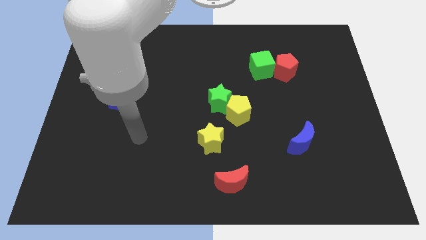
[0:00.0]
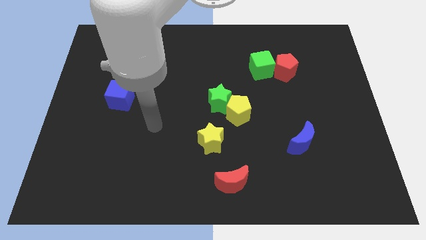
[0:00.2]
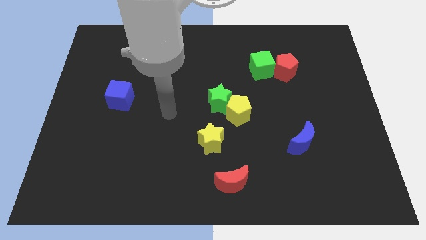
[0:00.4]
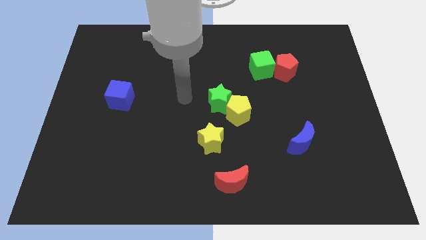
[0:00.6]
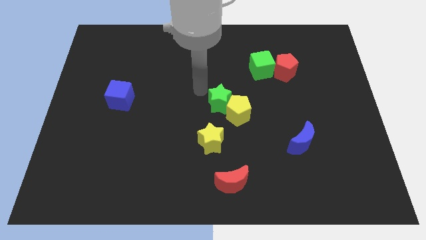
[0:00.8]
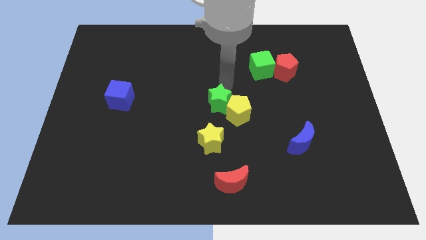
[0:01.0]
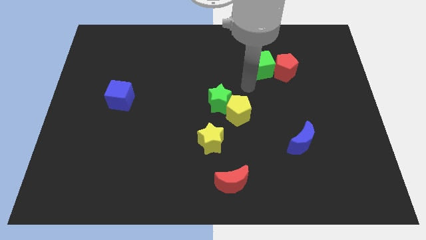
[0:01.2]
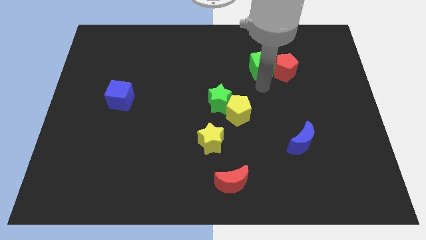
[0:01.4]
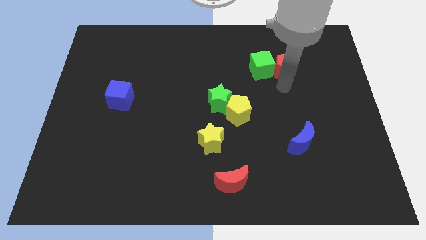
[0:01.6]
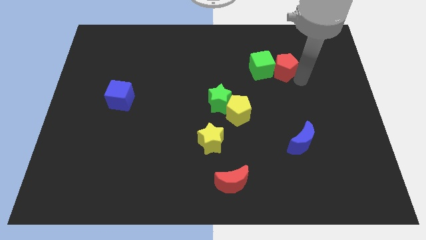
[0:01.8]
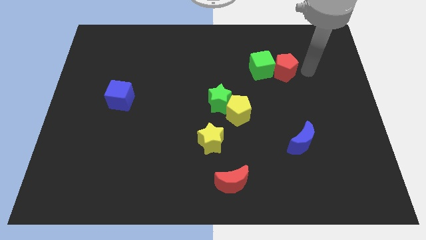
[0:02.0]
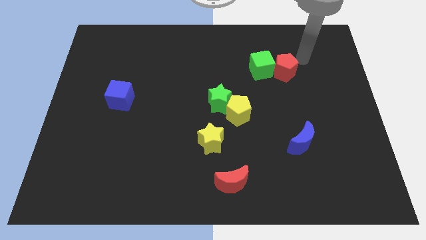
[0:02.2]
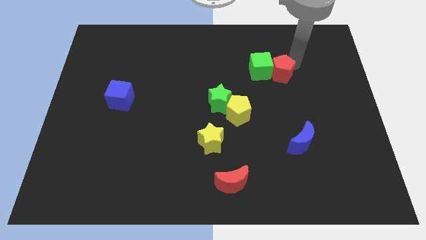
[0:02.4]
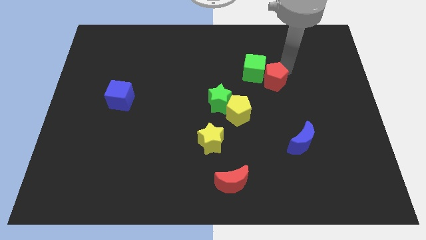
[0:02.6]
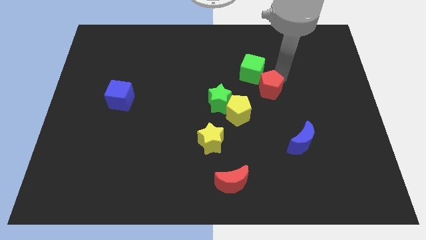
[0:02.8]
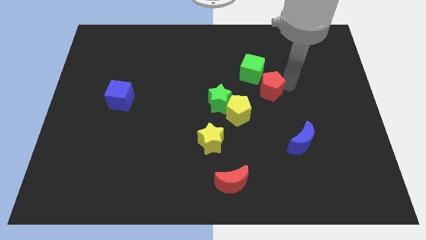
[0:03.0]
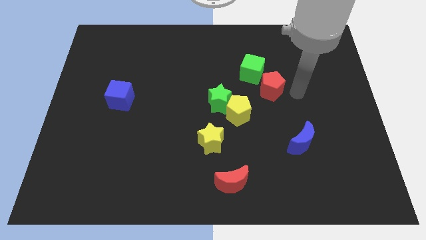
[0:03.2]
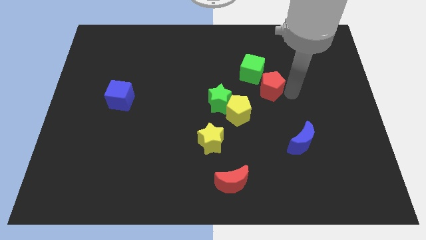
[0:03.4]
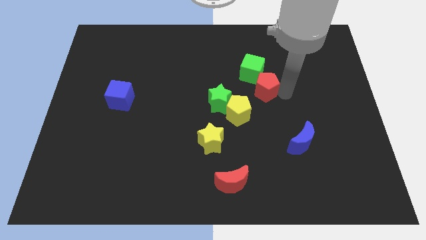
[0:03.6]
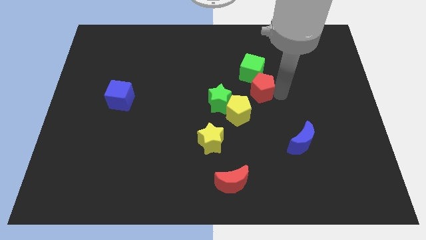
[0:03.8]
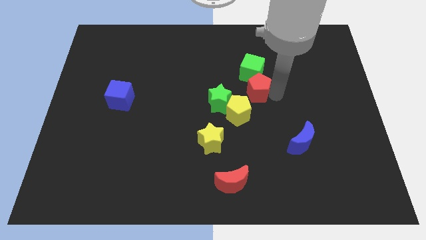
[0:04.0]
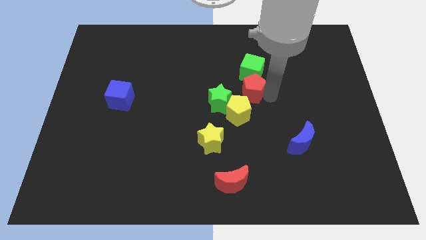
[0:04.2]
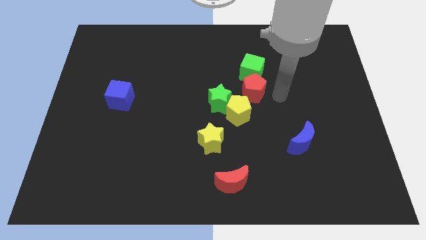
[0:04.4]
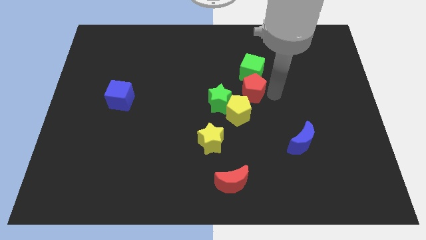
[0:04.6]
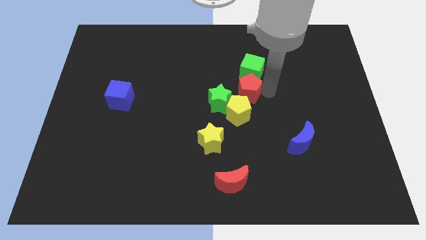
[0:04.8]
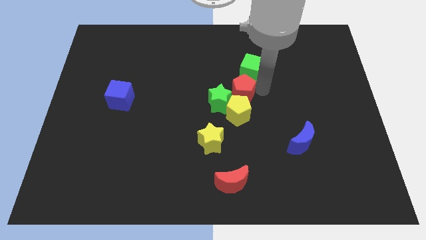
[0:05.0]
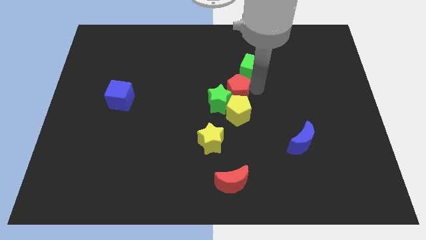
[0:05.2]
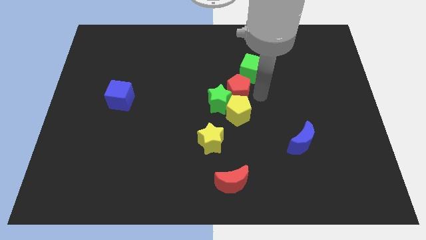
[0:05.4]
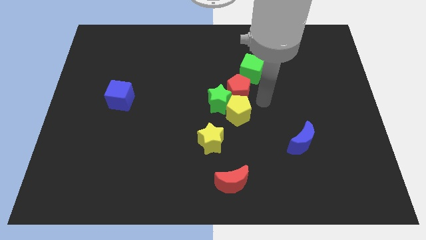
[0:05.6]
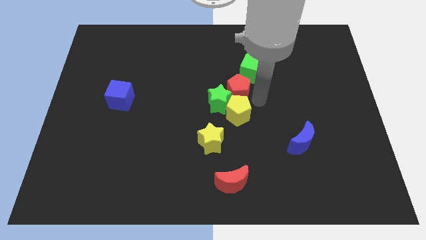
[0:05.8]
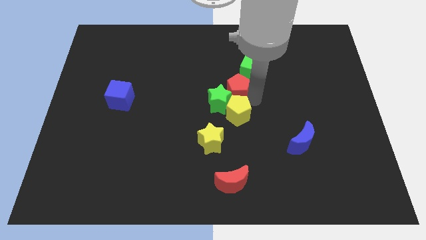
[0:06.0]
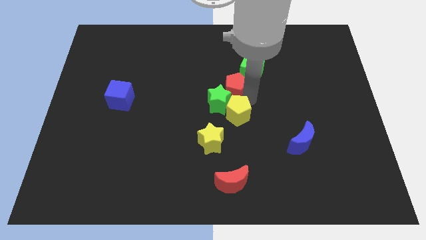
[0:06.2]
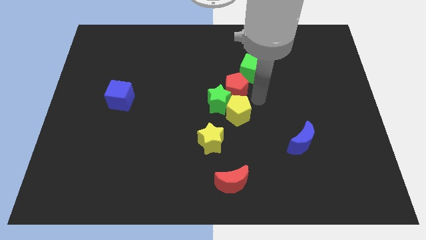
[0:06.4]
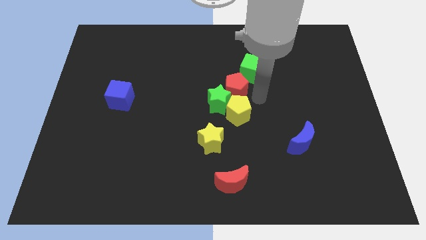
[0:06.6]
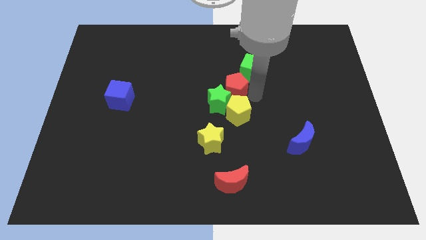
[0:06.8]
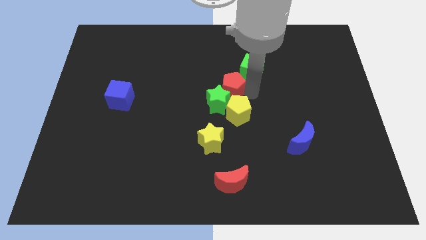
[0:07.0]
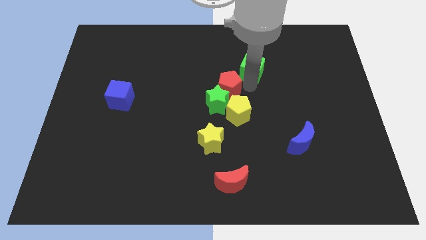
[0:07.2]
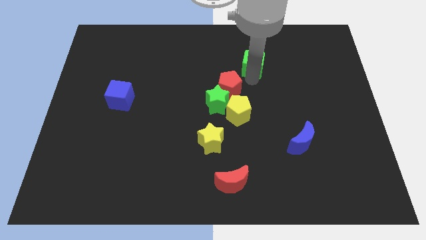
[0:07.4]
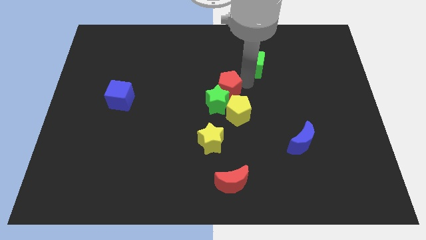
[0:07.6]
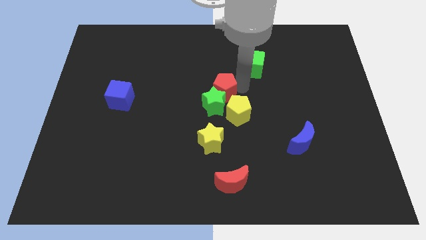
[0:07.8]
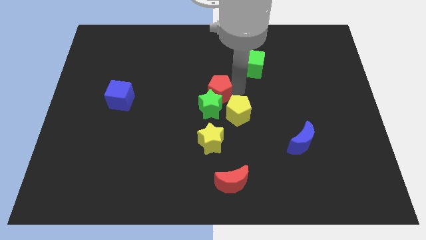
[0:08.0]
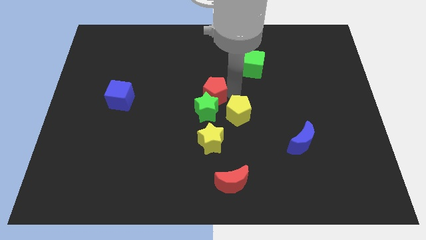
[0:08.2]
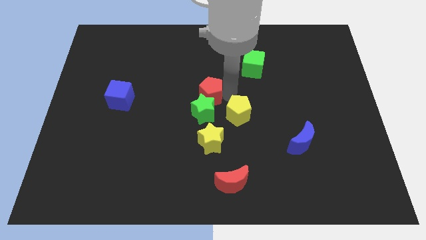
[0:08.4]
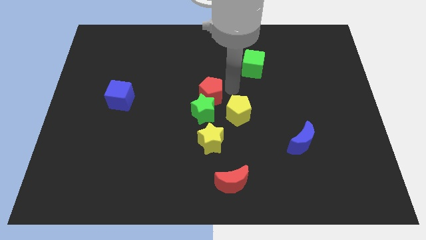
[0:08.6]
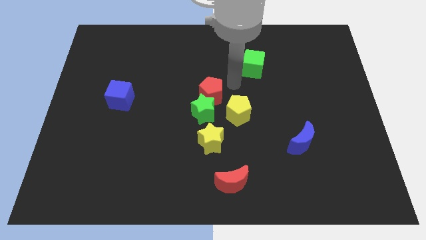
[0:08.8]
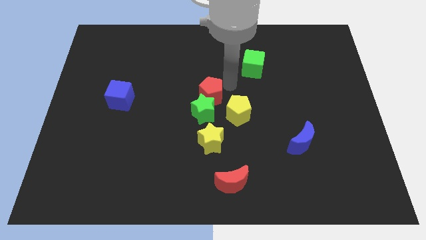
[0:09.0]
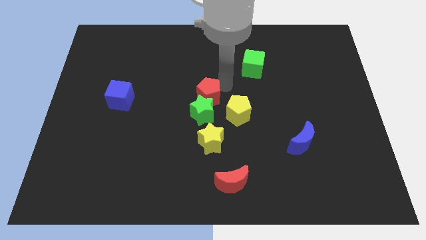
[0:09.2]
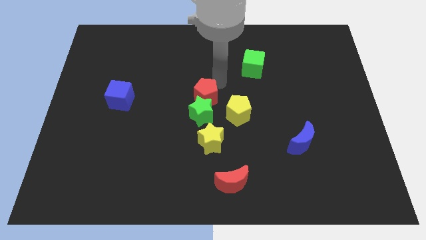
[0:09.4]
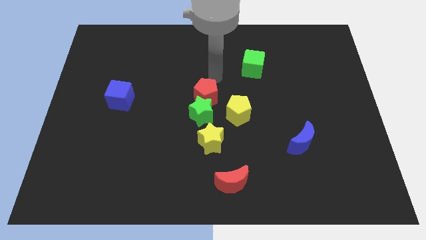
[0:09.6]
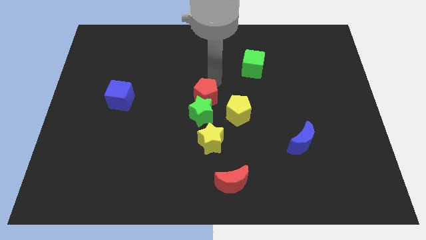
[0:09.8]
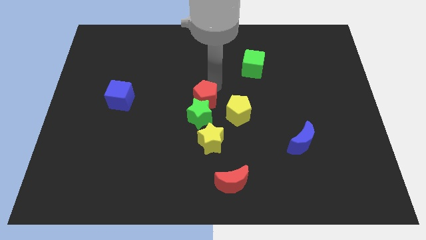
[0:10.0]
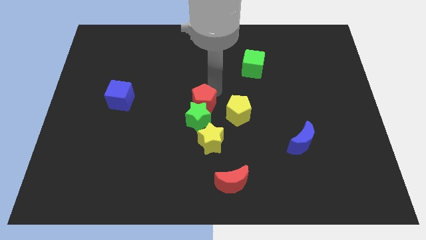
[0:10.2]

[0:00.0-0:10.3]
move the red pentagon downwards and left

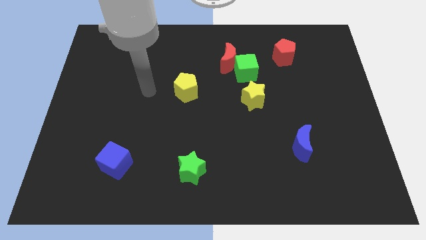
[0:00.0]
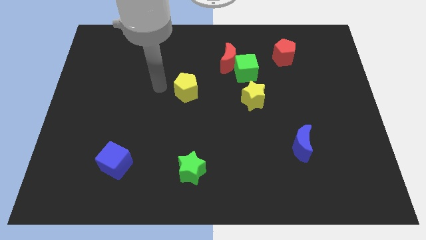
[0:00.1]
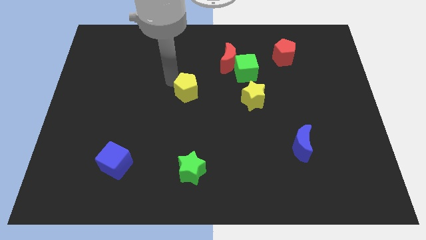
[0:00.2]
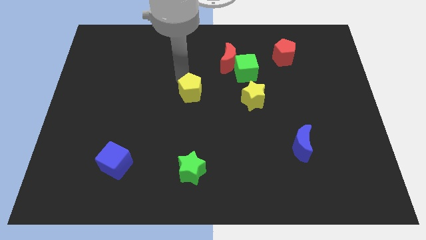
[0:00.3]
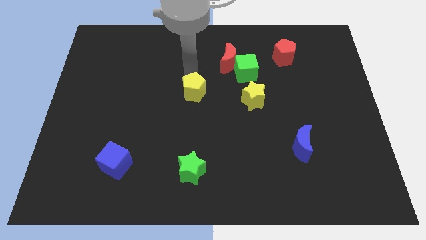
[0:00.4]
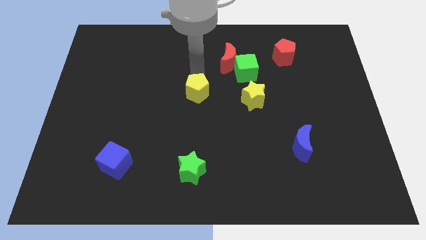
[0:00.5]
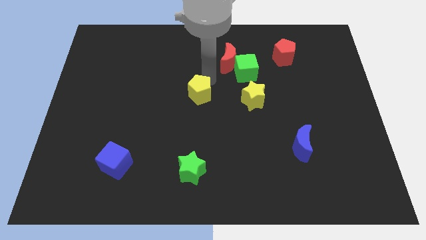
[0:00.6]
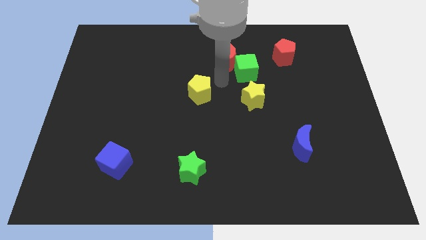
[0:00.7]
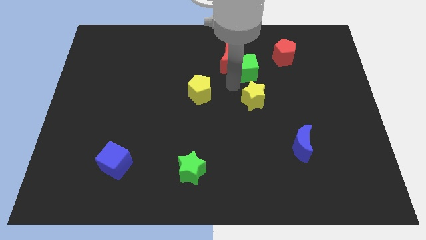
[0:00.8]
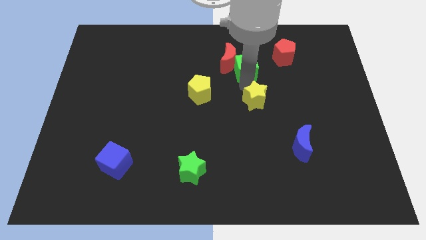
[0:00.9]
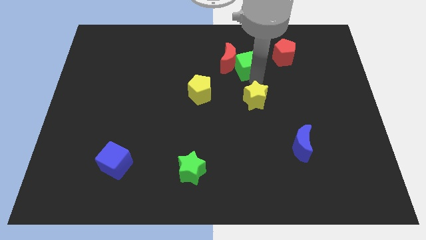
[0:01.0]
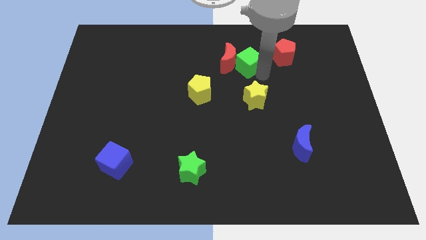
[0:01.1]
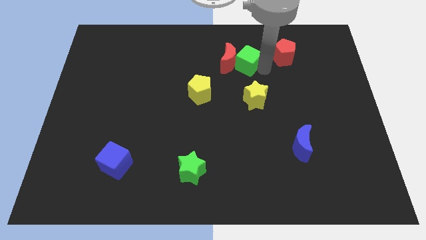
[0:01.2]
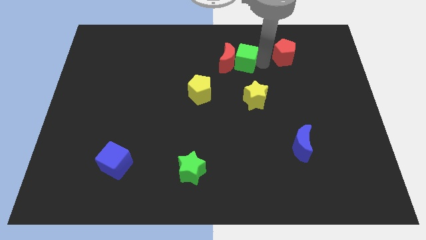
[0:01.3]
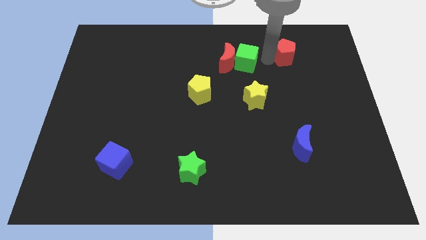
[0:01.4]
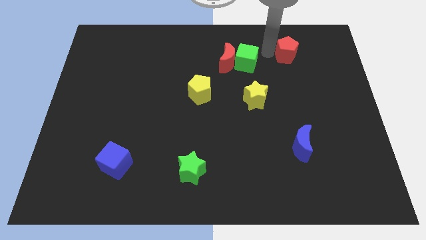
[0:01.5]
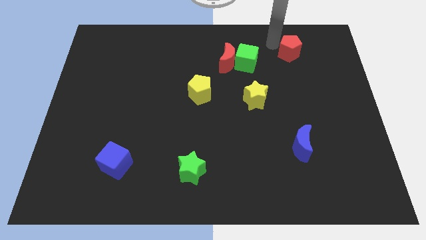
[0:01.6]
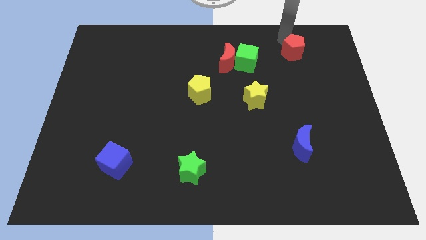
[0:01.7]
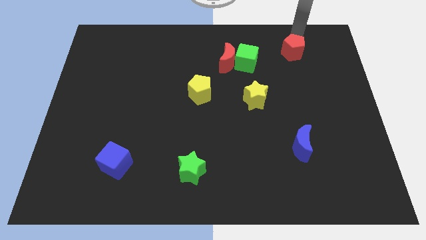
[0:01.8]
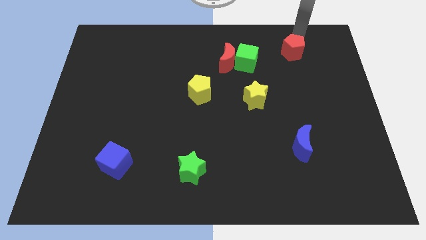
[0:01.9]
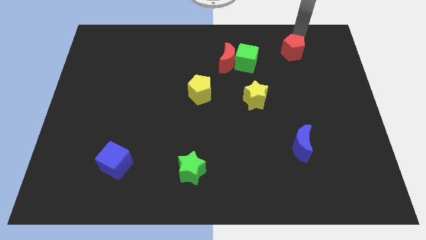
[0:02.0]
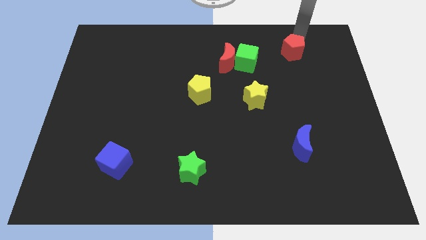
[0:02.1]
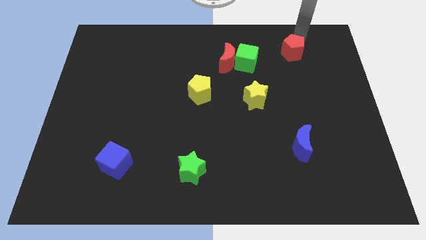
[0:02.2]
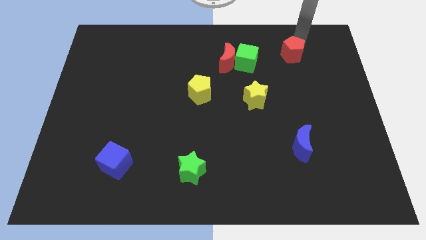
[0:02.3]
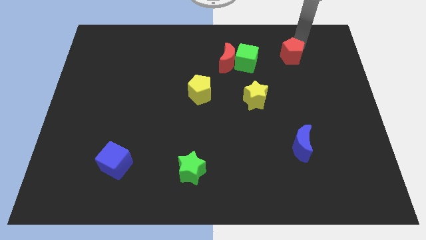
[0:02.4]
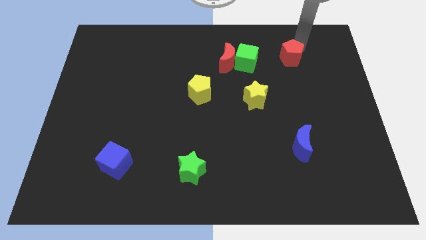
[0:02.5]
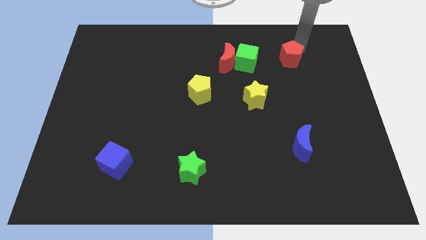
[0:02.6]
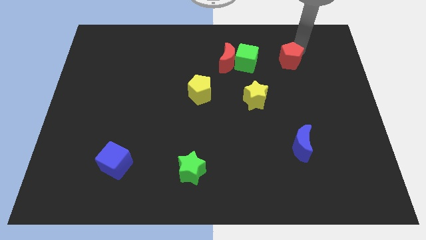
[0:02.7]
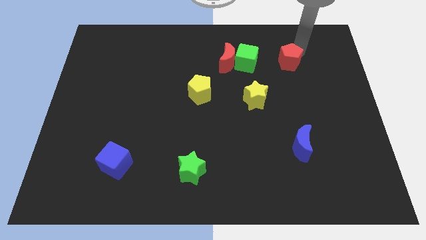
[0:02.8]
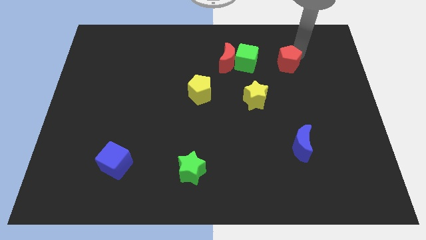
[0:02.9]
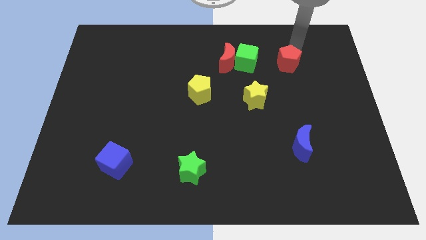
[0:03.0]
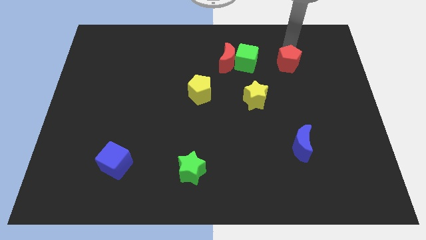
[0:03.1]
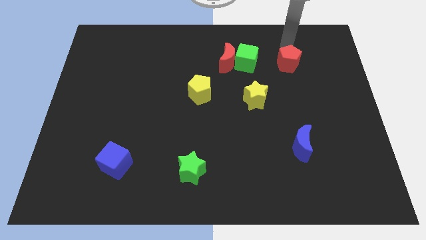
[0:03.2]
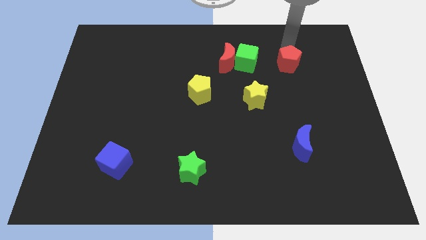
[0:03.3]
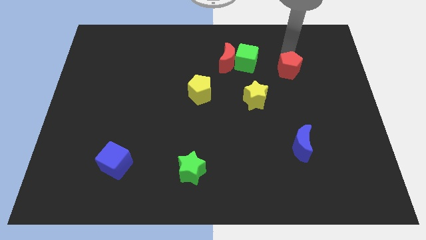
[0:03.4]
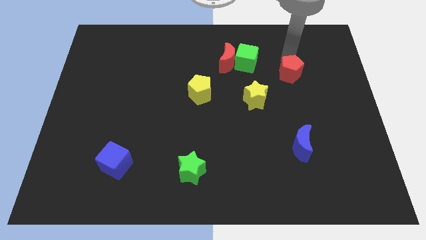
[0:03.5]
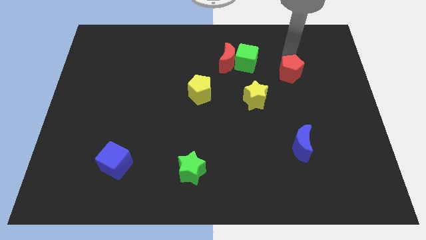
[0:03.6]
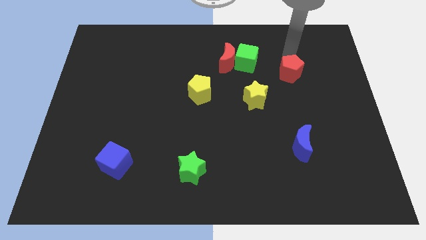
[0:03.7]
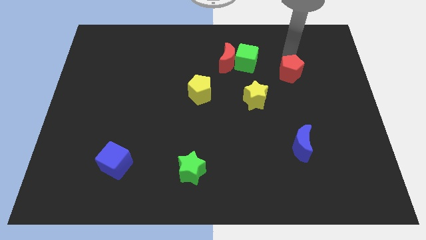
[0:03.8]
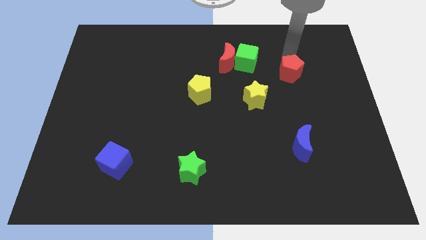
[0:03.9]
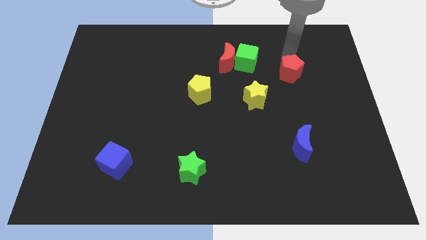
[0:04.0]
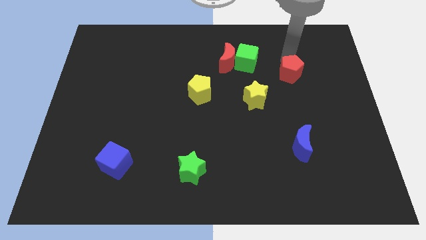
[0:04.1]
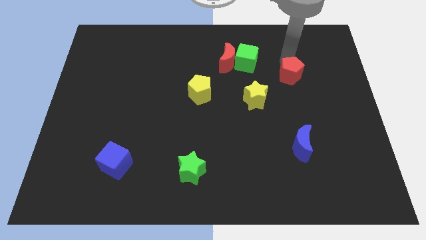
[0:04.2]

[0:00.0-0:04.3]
push the red pentagon down a little bit
